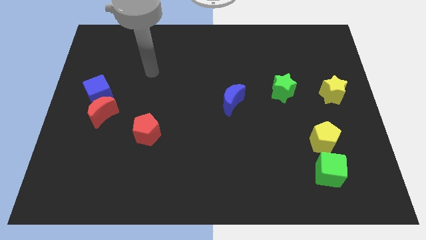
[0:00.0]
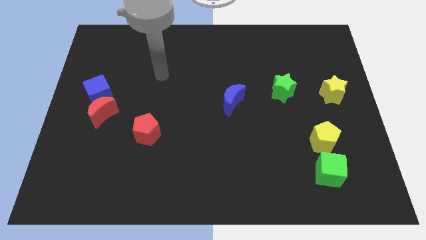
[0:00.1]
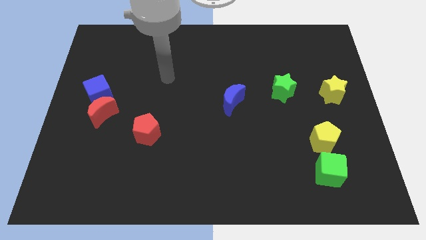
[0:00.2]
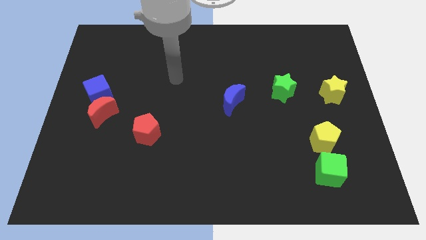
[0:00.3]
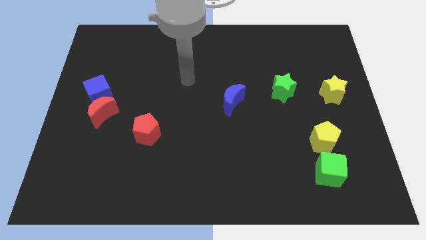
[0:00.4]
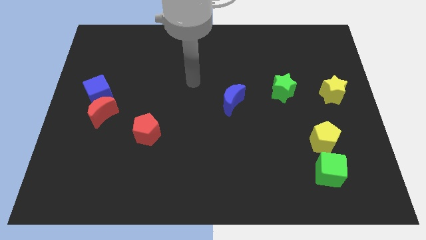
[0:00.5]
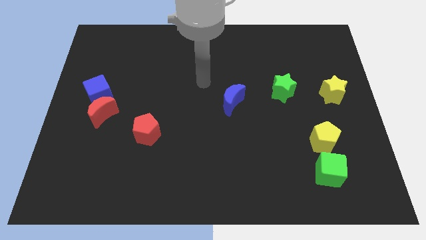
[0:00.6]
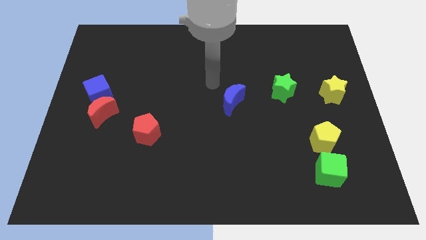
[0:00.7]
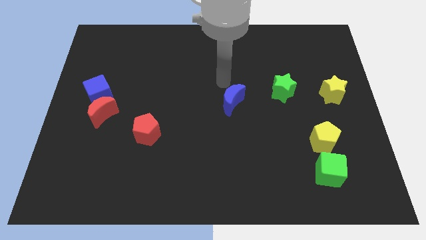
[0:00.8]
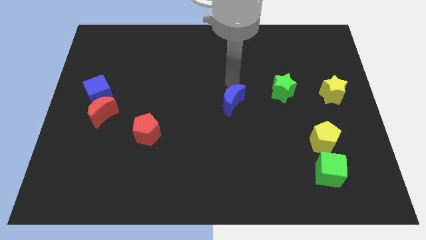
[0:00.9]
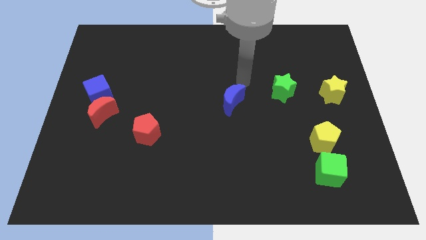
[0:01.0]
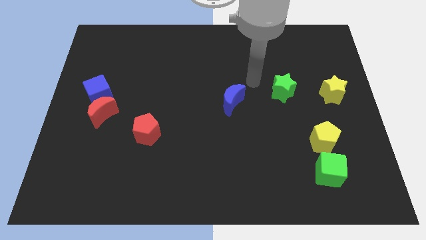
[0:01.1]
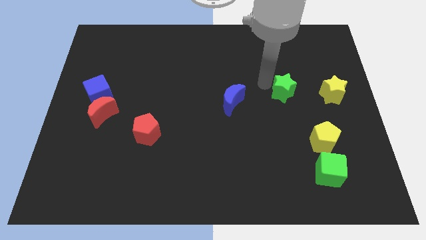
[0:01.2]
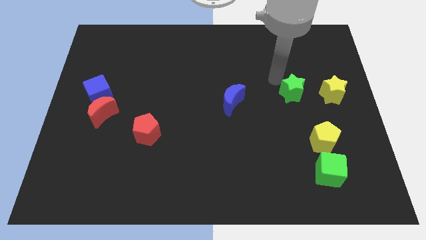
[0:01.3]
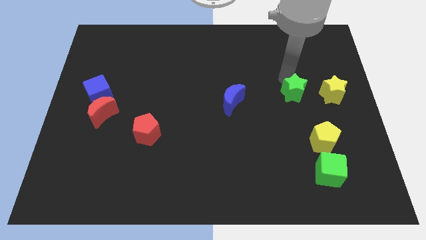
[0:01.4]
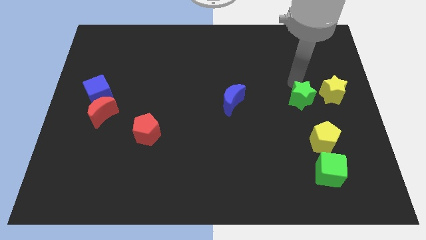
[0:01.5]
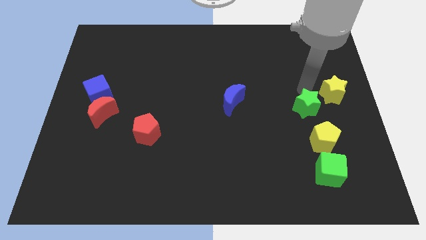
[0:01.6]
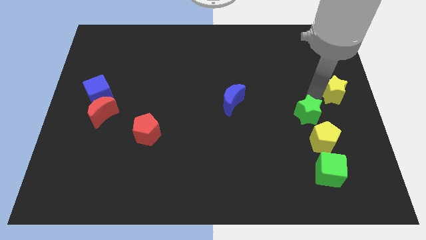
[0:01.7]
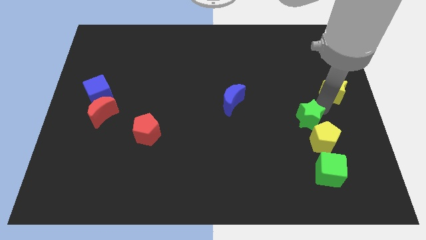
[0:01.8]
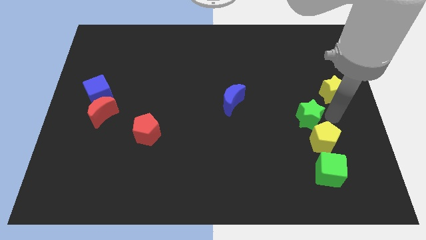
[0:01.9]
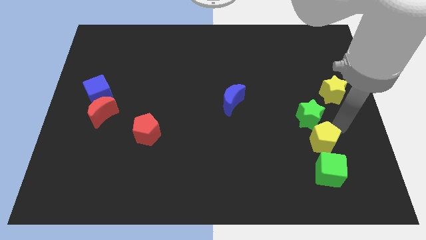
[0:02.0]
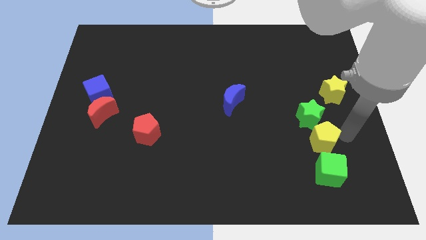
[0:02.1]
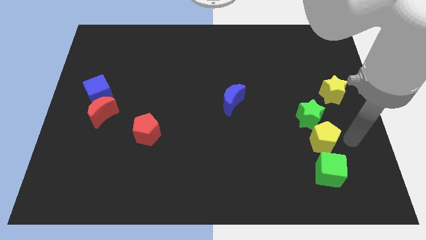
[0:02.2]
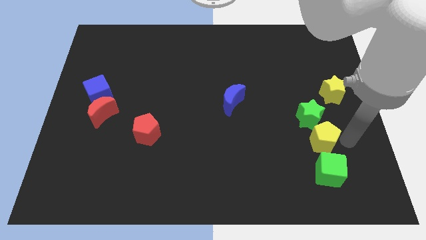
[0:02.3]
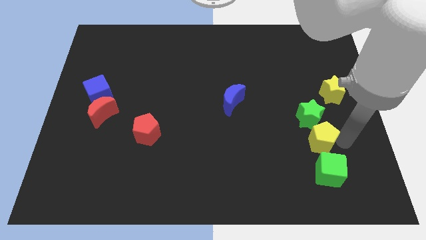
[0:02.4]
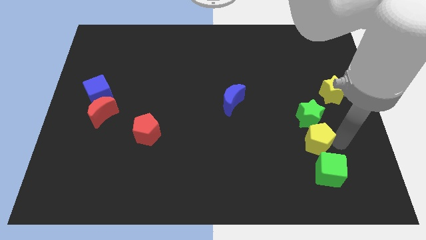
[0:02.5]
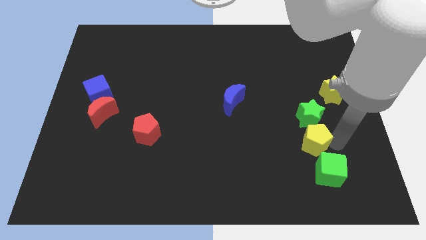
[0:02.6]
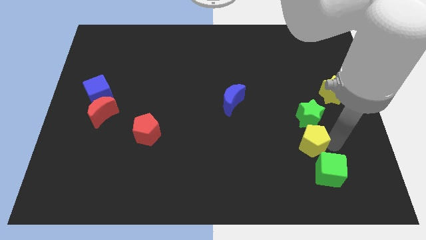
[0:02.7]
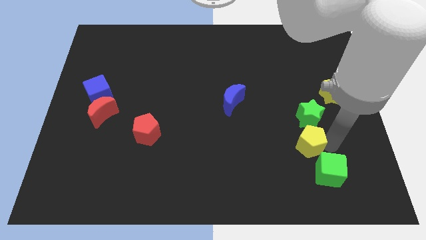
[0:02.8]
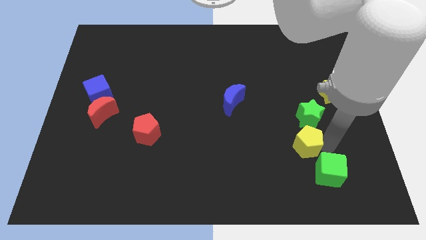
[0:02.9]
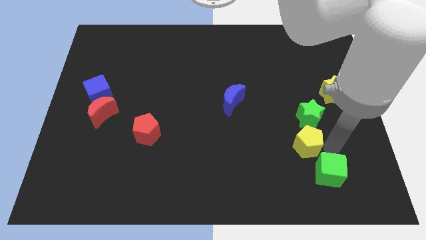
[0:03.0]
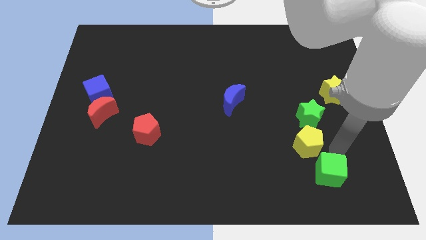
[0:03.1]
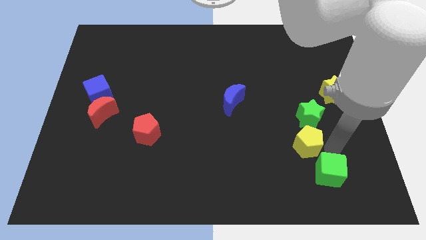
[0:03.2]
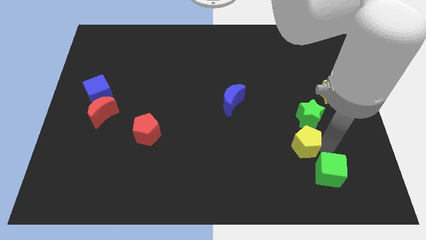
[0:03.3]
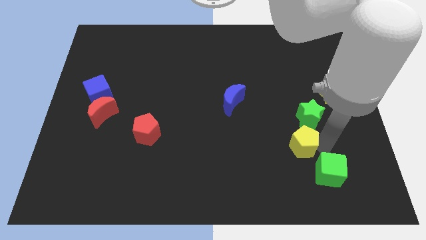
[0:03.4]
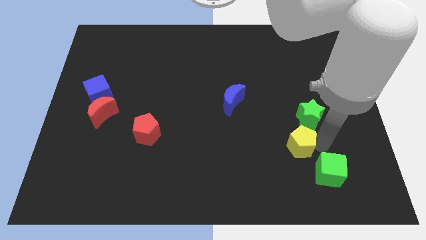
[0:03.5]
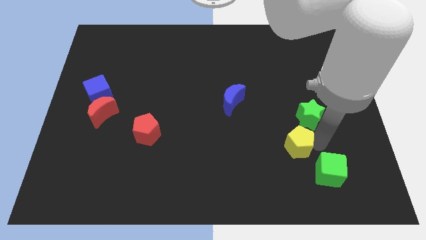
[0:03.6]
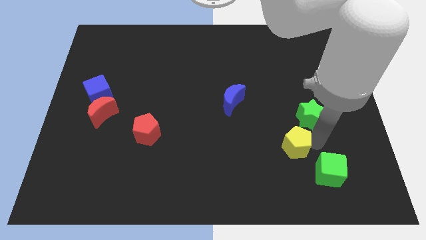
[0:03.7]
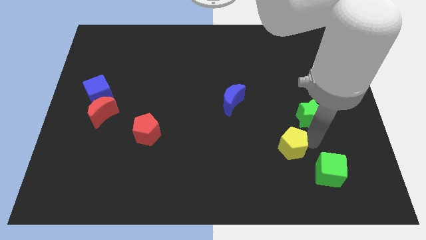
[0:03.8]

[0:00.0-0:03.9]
move the yellow pentagon somewhat to the left

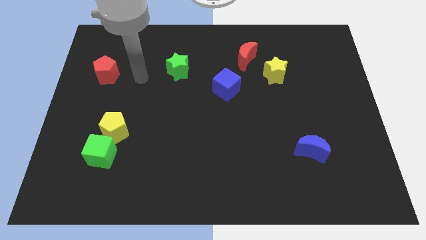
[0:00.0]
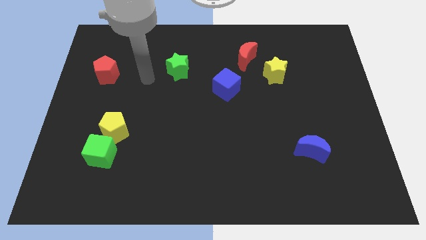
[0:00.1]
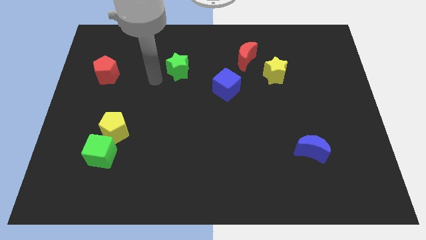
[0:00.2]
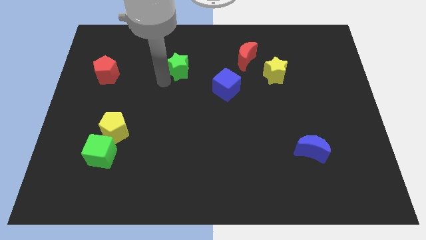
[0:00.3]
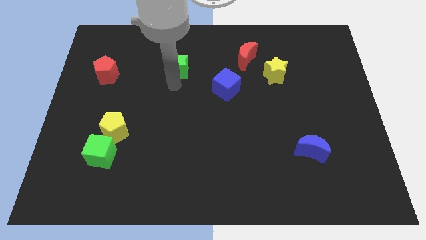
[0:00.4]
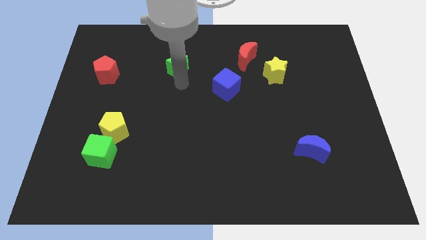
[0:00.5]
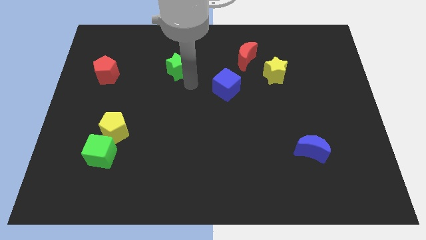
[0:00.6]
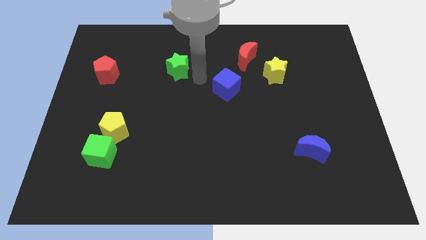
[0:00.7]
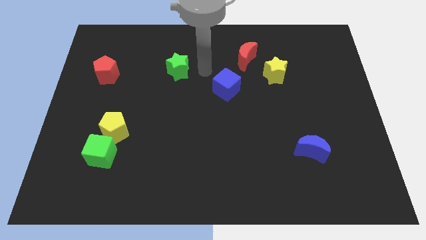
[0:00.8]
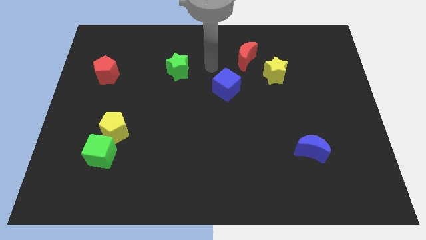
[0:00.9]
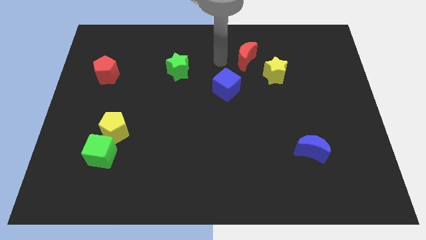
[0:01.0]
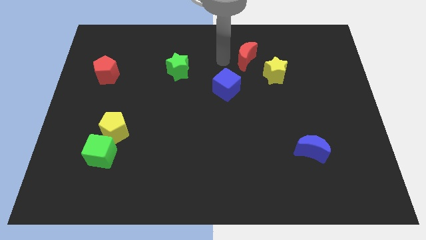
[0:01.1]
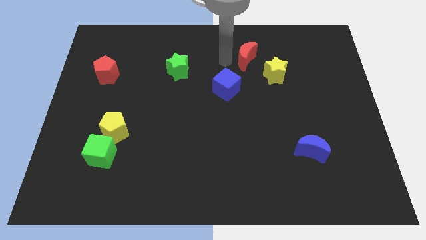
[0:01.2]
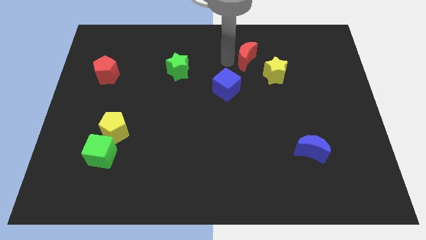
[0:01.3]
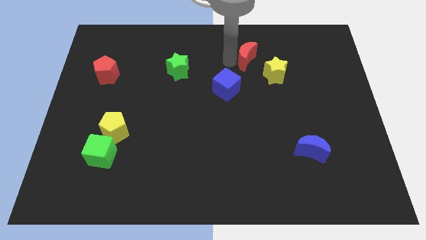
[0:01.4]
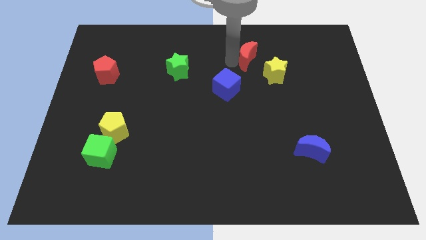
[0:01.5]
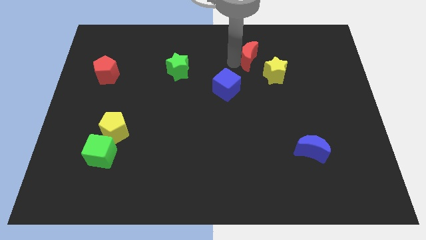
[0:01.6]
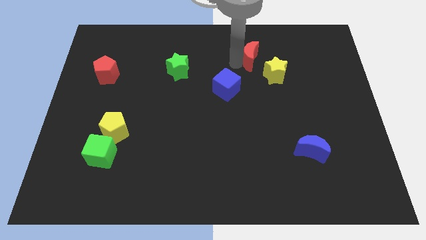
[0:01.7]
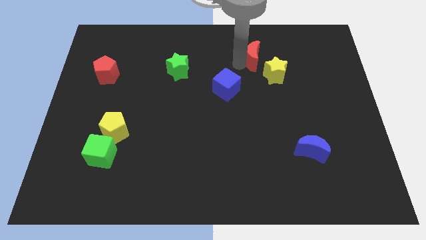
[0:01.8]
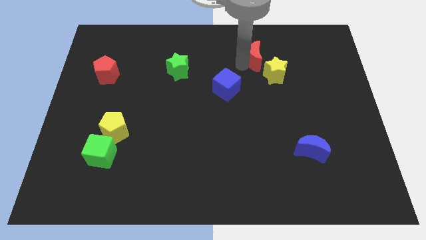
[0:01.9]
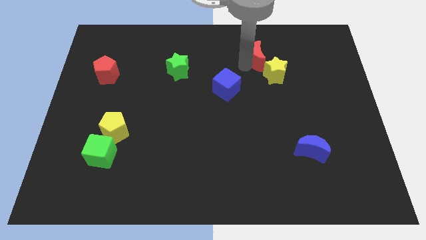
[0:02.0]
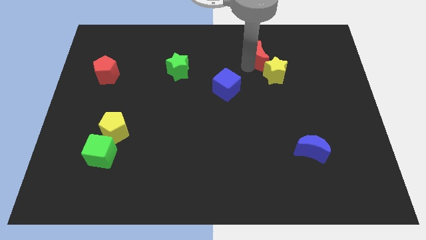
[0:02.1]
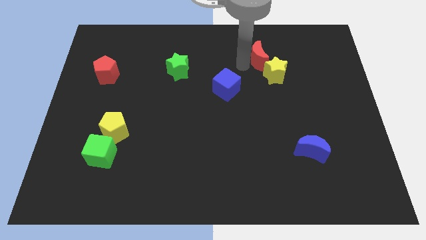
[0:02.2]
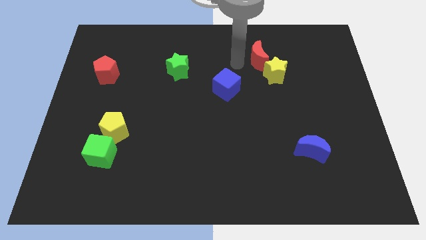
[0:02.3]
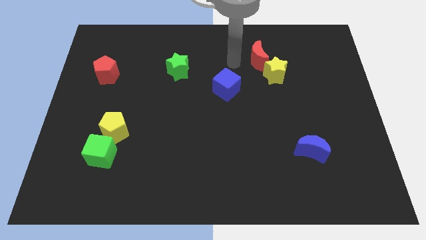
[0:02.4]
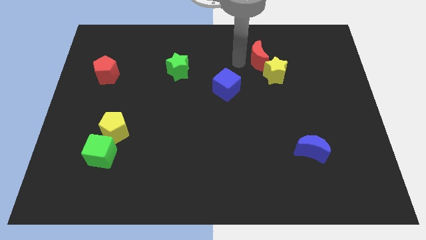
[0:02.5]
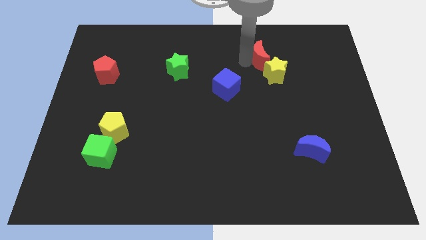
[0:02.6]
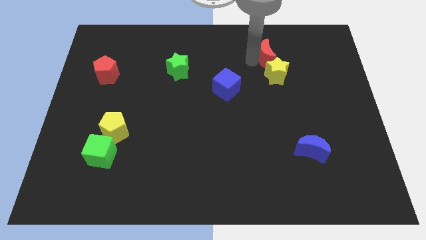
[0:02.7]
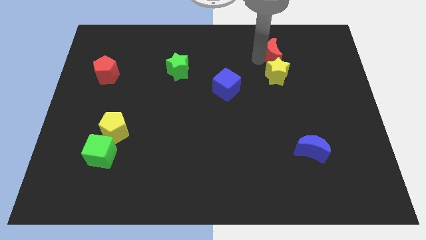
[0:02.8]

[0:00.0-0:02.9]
move the red moon slightly to the right

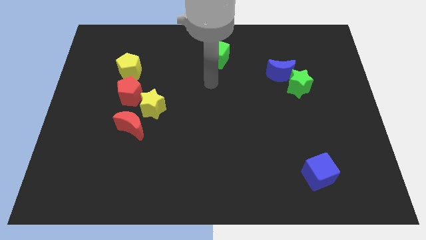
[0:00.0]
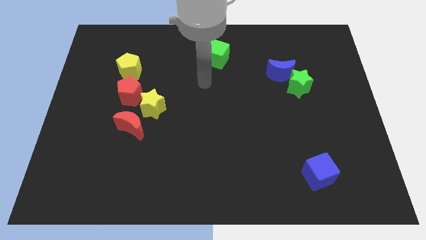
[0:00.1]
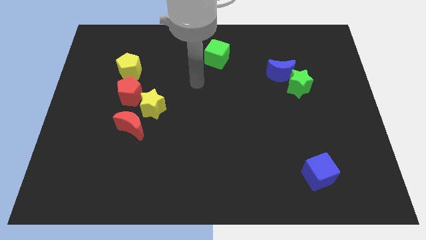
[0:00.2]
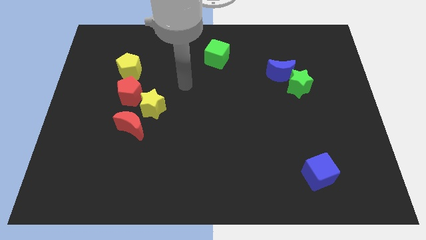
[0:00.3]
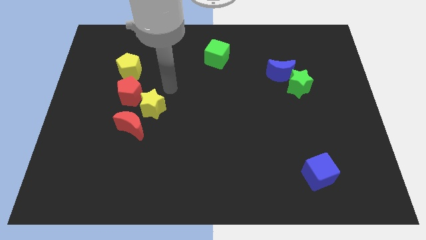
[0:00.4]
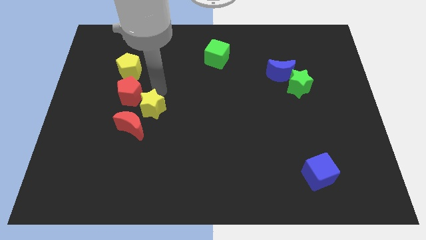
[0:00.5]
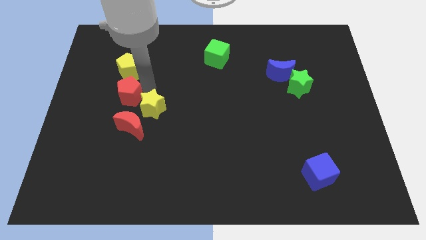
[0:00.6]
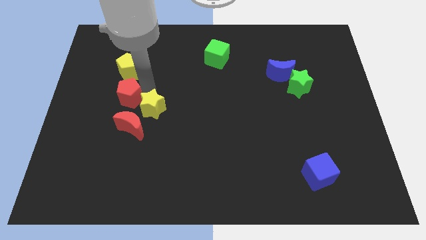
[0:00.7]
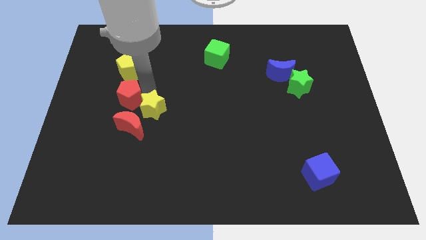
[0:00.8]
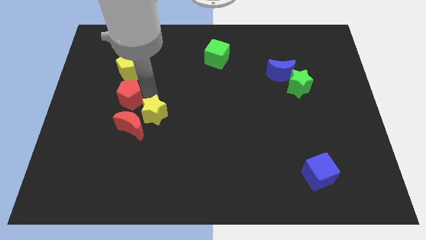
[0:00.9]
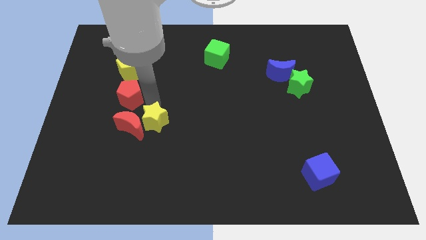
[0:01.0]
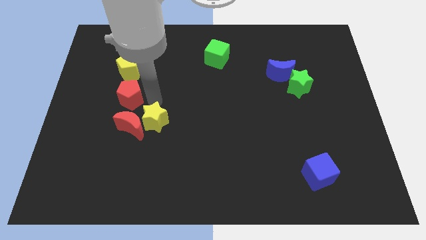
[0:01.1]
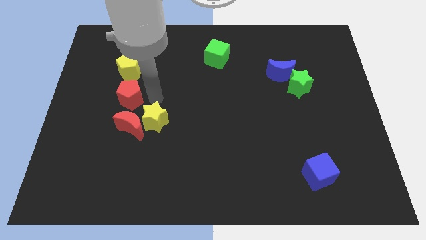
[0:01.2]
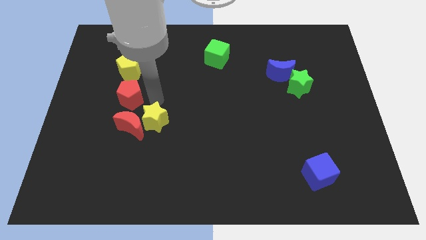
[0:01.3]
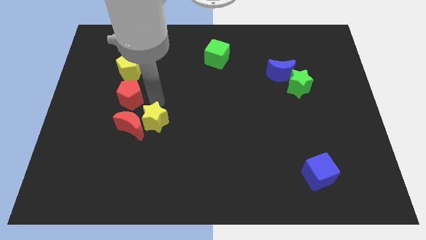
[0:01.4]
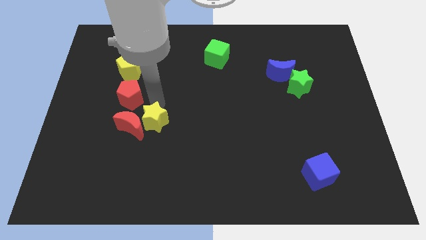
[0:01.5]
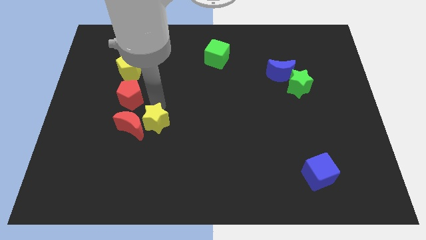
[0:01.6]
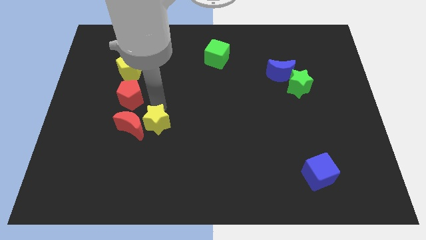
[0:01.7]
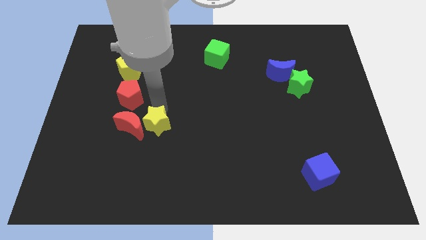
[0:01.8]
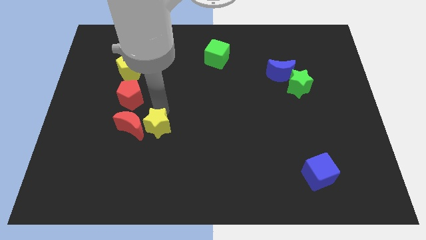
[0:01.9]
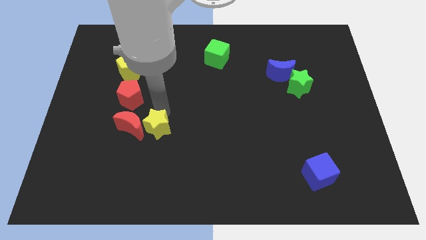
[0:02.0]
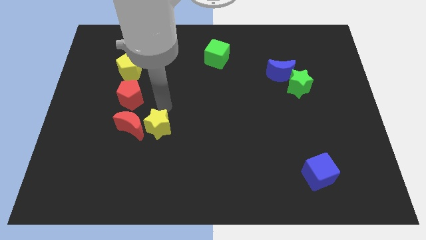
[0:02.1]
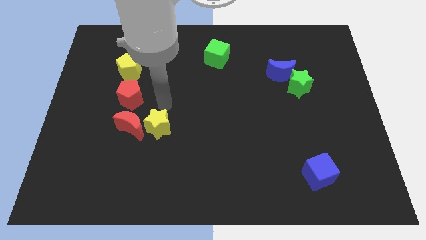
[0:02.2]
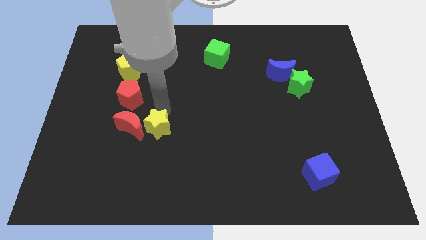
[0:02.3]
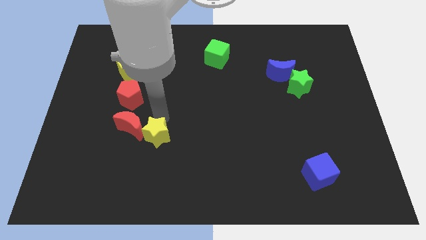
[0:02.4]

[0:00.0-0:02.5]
slide the yellow star downwards slightly
